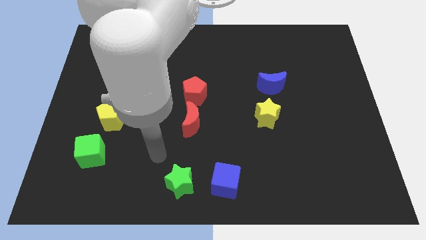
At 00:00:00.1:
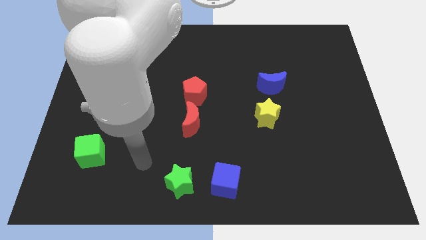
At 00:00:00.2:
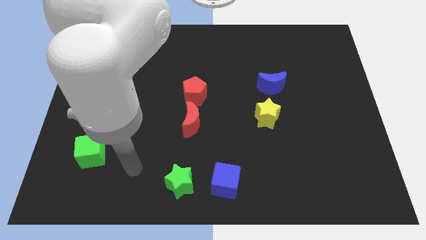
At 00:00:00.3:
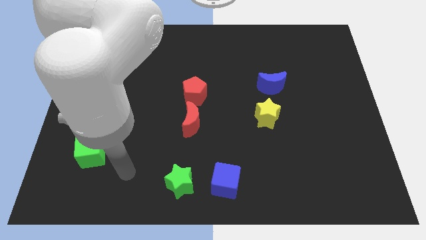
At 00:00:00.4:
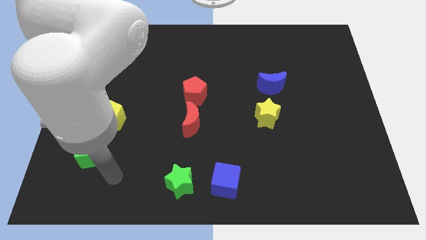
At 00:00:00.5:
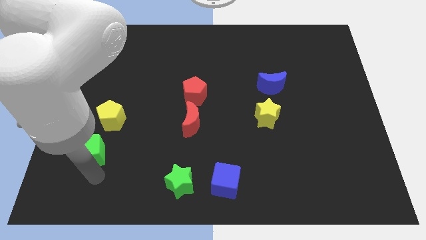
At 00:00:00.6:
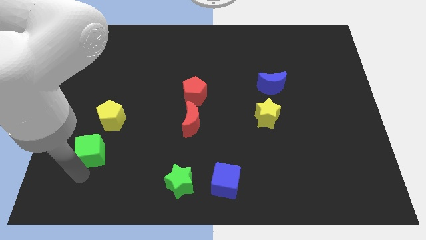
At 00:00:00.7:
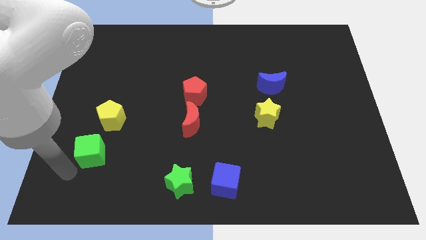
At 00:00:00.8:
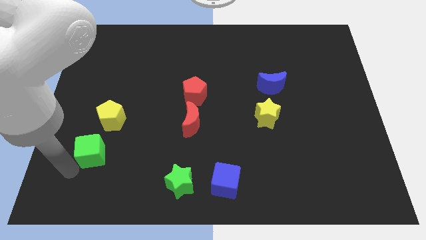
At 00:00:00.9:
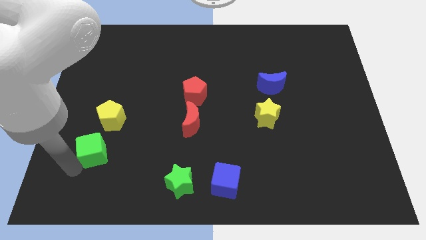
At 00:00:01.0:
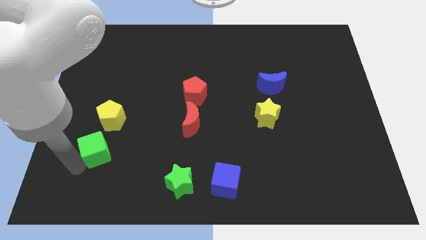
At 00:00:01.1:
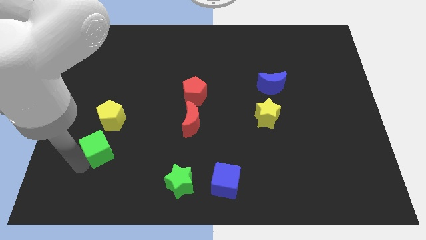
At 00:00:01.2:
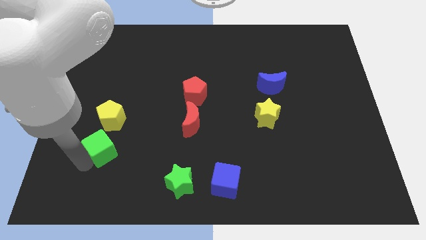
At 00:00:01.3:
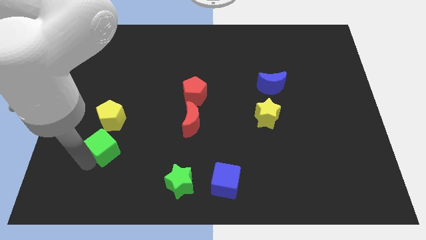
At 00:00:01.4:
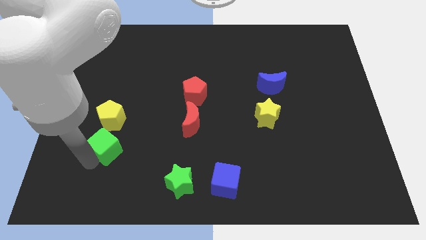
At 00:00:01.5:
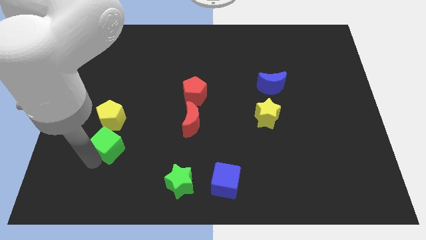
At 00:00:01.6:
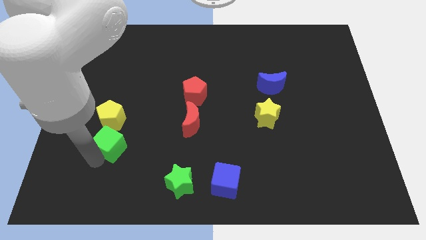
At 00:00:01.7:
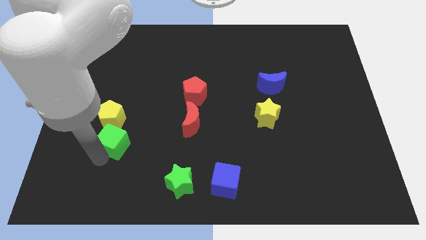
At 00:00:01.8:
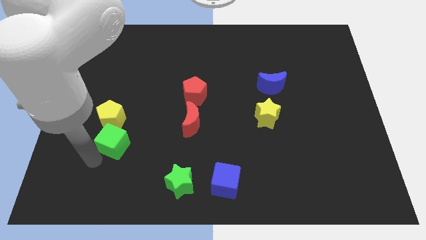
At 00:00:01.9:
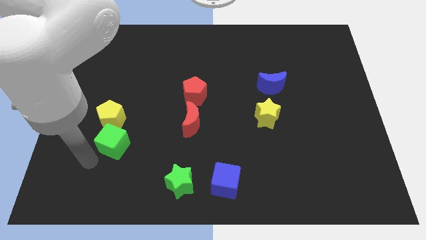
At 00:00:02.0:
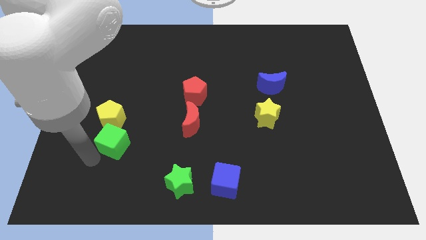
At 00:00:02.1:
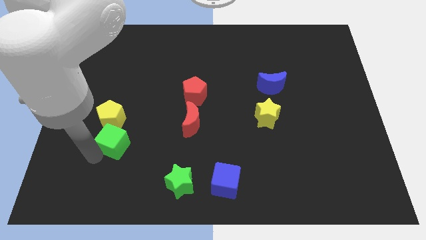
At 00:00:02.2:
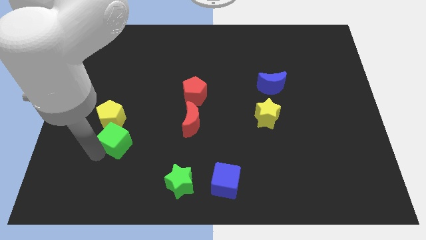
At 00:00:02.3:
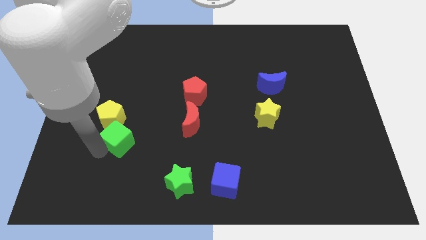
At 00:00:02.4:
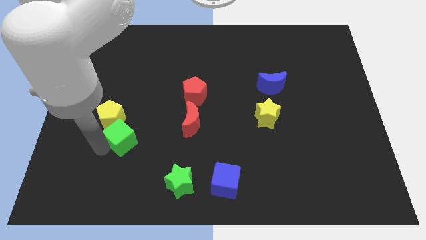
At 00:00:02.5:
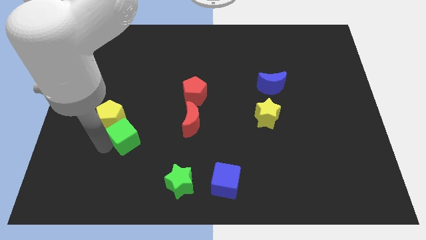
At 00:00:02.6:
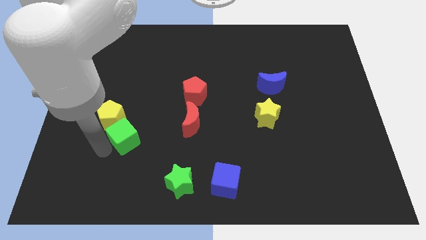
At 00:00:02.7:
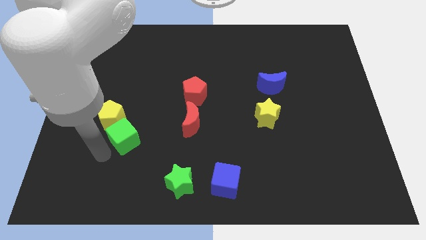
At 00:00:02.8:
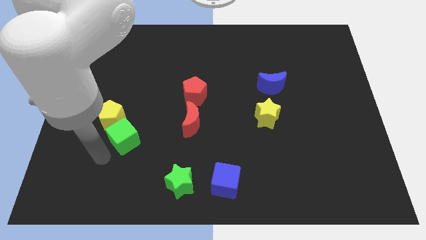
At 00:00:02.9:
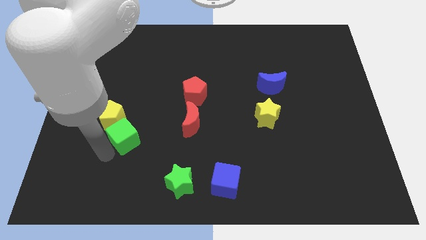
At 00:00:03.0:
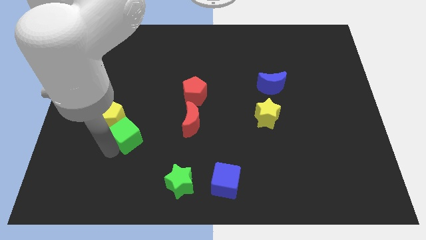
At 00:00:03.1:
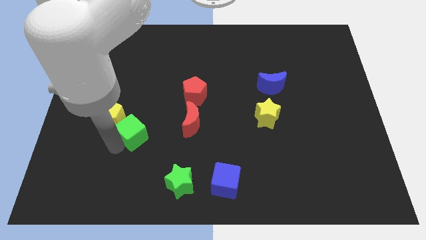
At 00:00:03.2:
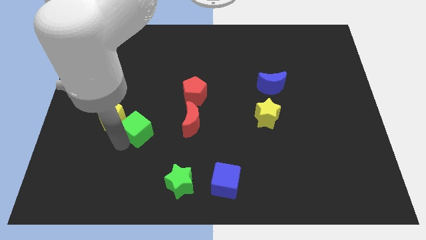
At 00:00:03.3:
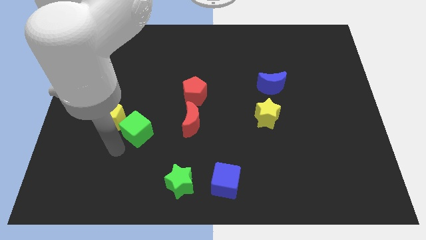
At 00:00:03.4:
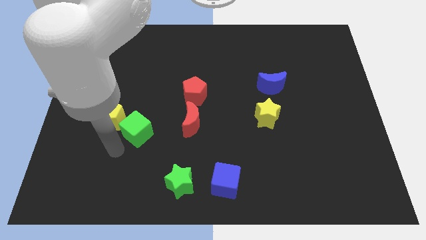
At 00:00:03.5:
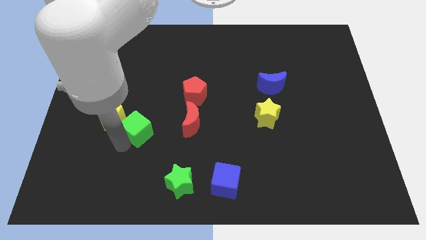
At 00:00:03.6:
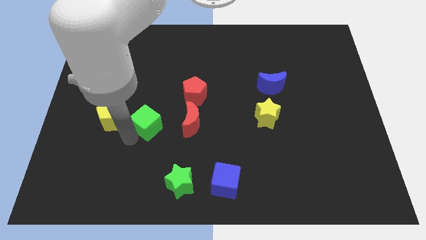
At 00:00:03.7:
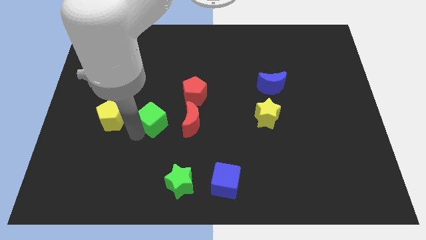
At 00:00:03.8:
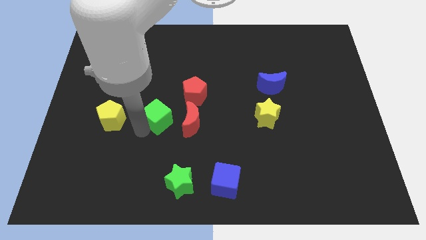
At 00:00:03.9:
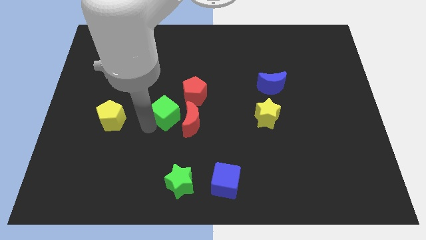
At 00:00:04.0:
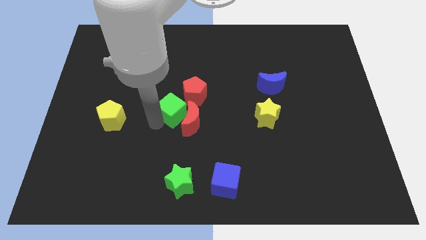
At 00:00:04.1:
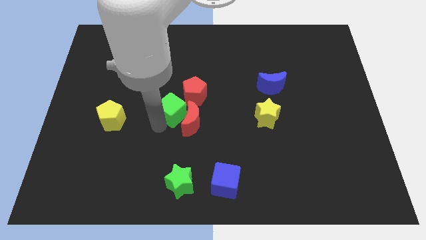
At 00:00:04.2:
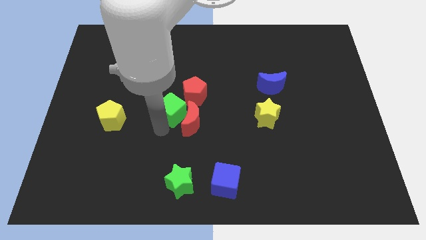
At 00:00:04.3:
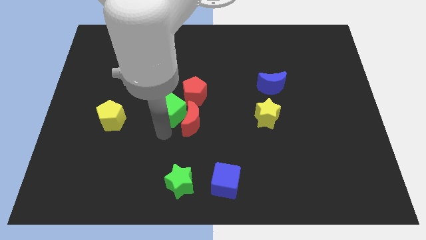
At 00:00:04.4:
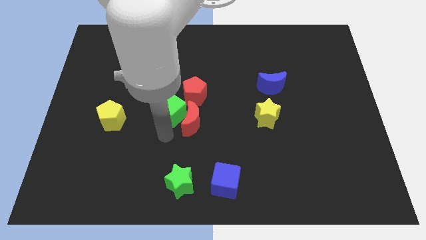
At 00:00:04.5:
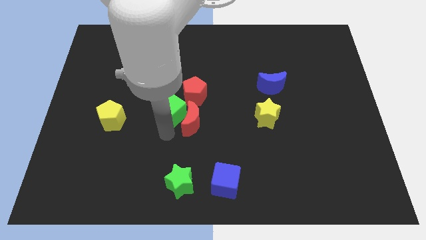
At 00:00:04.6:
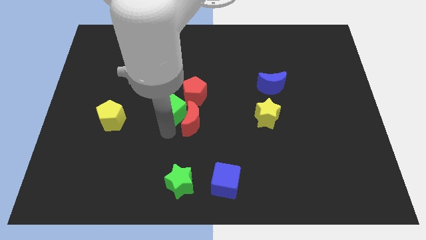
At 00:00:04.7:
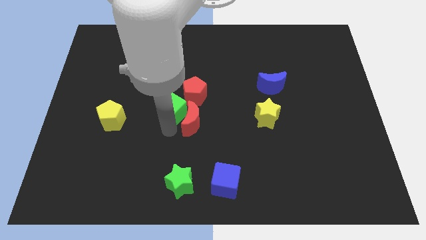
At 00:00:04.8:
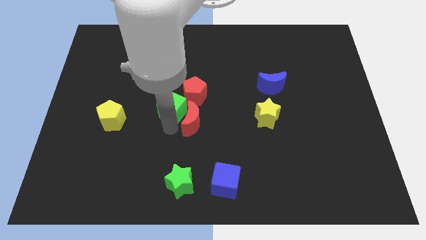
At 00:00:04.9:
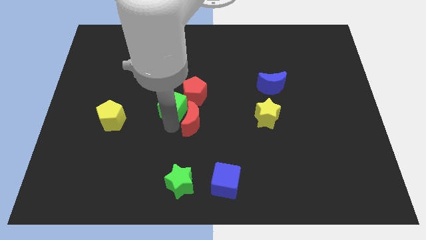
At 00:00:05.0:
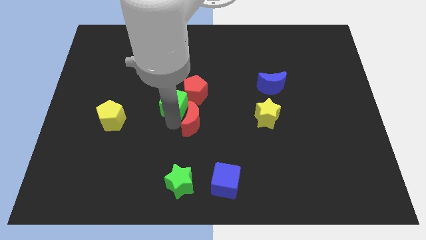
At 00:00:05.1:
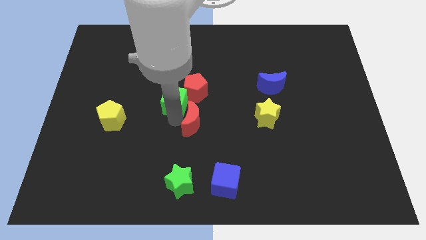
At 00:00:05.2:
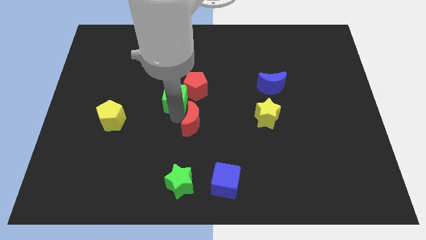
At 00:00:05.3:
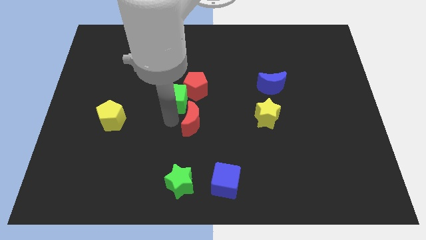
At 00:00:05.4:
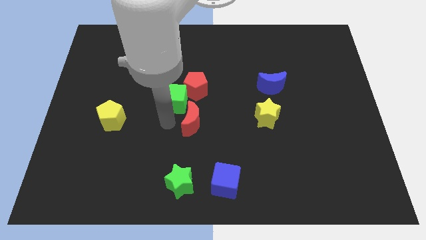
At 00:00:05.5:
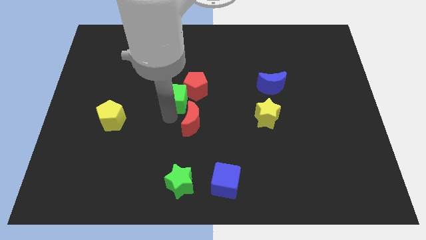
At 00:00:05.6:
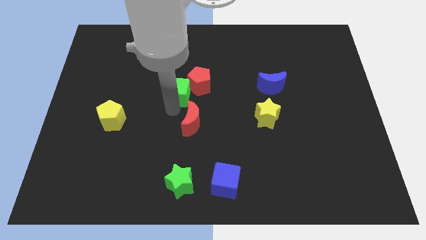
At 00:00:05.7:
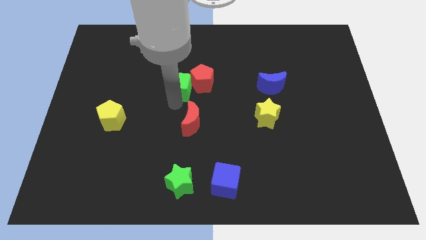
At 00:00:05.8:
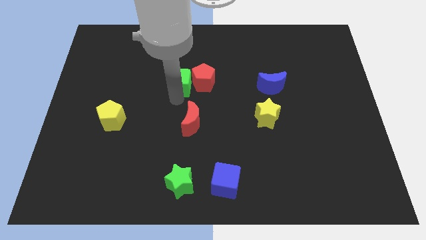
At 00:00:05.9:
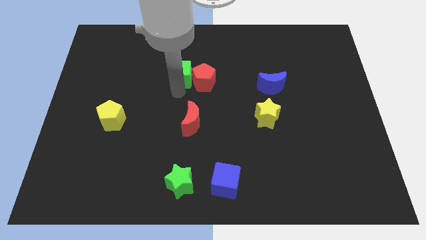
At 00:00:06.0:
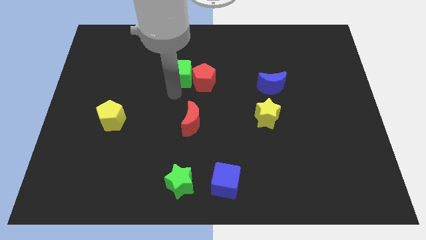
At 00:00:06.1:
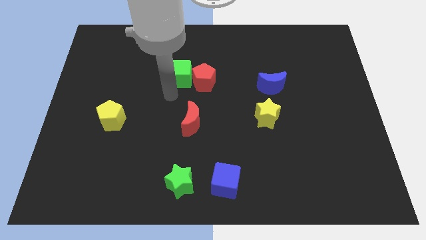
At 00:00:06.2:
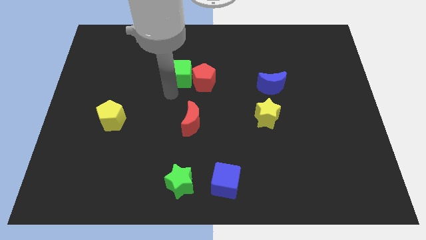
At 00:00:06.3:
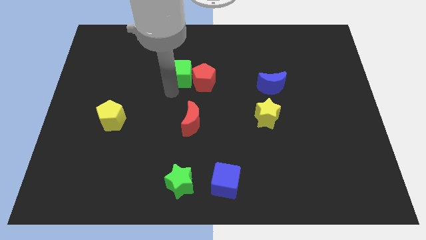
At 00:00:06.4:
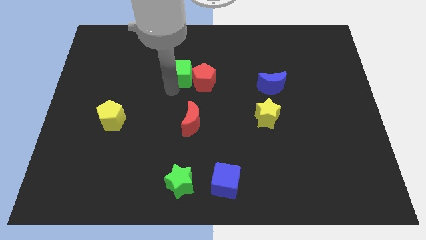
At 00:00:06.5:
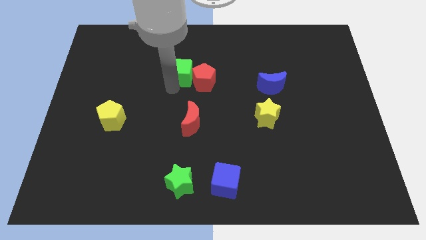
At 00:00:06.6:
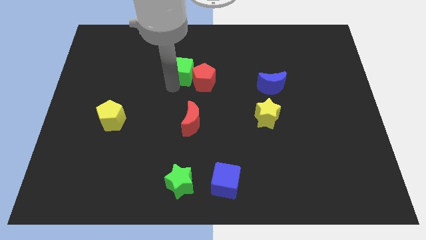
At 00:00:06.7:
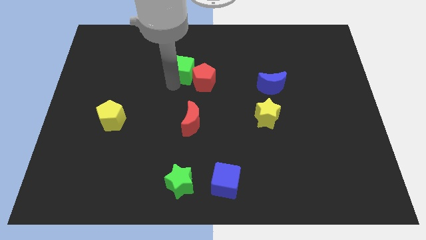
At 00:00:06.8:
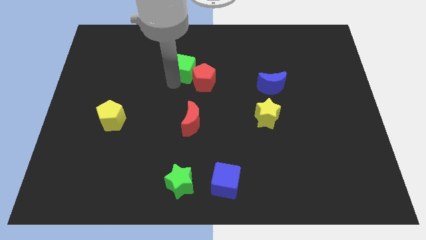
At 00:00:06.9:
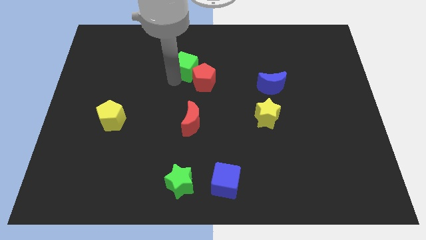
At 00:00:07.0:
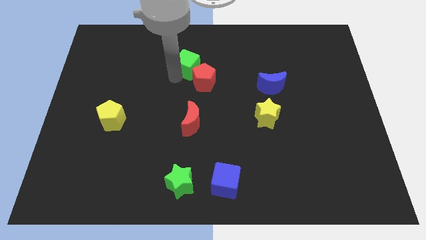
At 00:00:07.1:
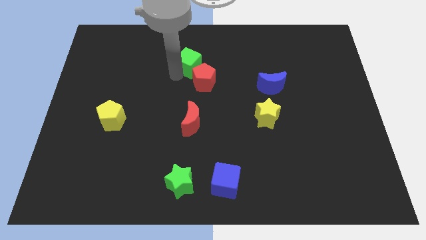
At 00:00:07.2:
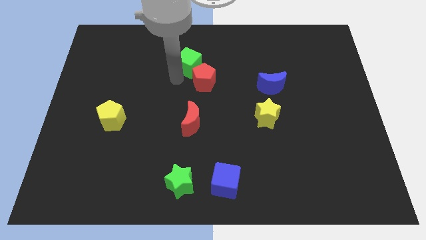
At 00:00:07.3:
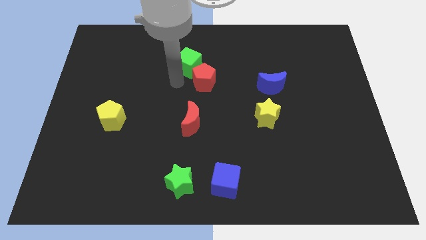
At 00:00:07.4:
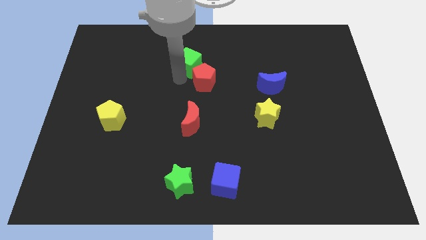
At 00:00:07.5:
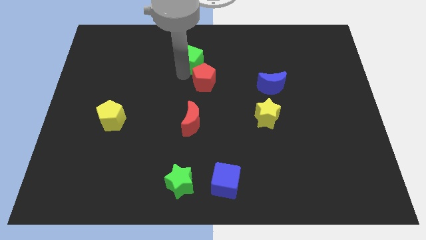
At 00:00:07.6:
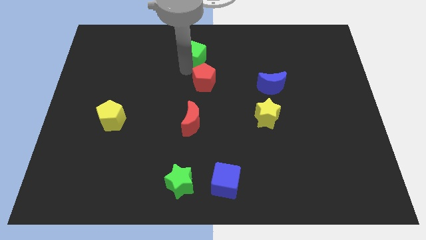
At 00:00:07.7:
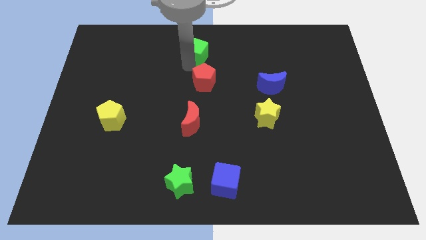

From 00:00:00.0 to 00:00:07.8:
push the green cube to the top
